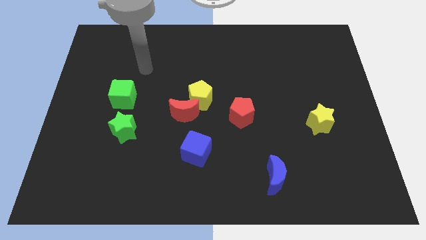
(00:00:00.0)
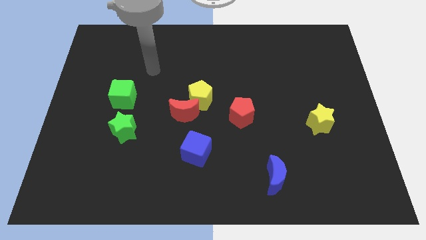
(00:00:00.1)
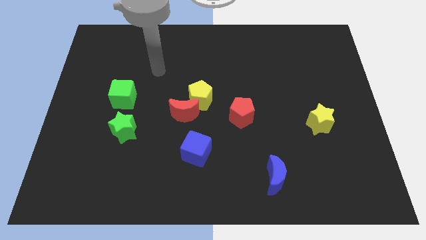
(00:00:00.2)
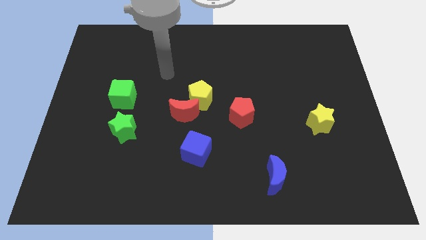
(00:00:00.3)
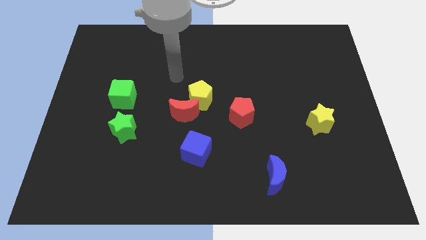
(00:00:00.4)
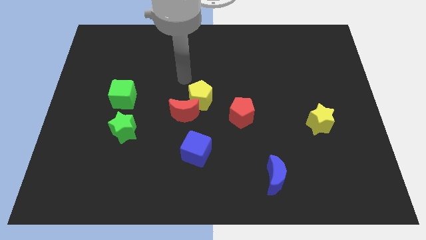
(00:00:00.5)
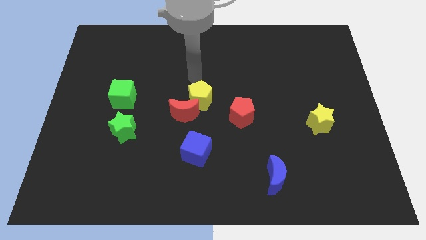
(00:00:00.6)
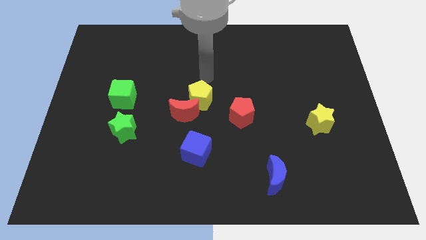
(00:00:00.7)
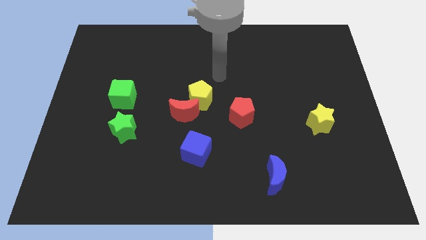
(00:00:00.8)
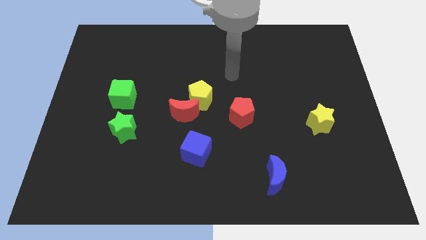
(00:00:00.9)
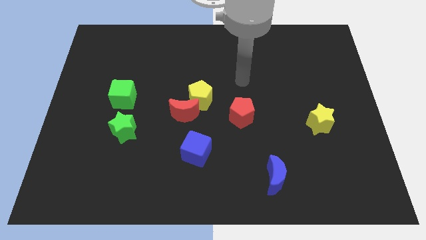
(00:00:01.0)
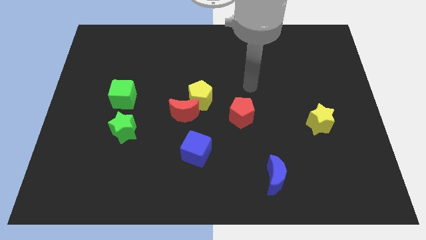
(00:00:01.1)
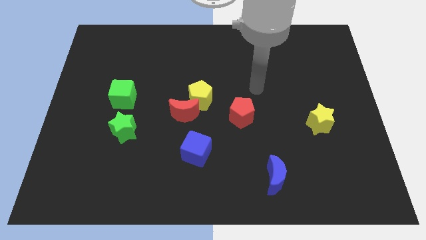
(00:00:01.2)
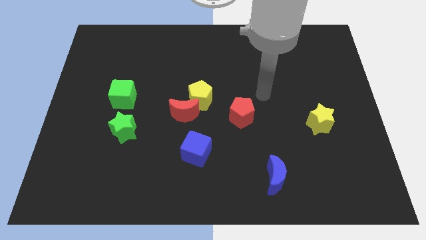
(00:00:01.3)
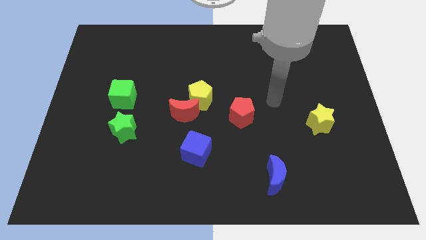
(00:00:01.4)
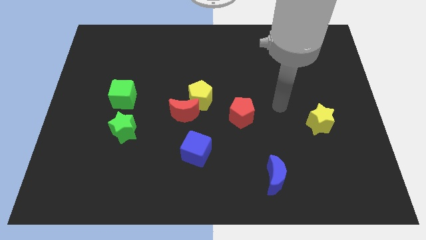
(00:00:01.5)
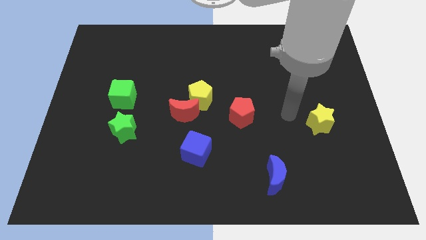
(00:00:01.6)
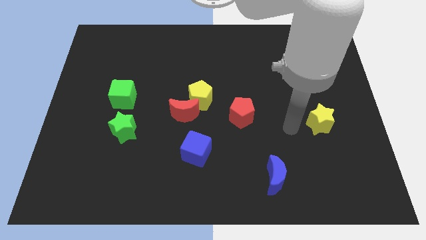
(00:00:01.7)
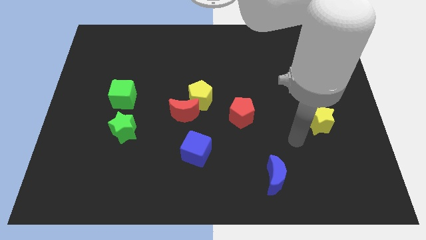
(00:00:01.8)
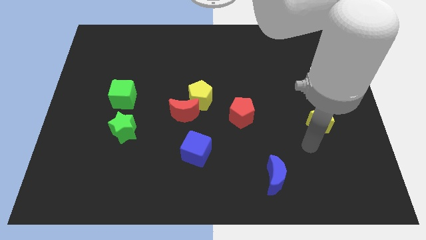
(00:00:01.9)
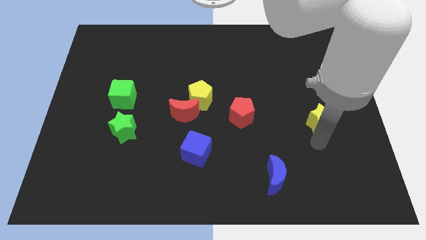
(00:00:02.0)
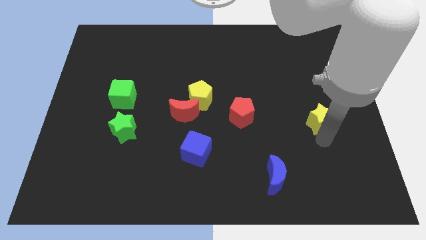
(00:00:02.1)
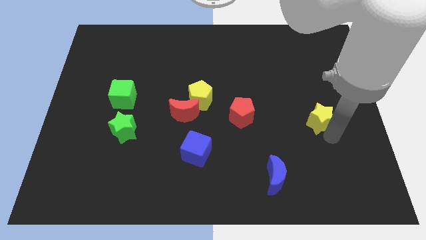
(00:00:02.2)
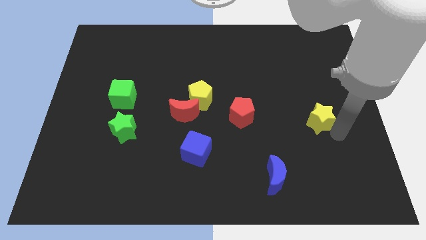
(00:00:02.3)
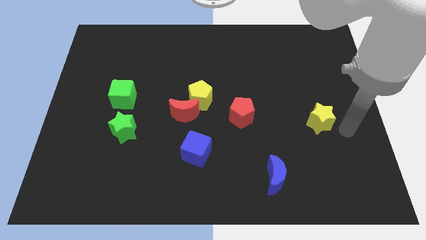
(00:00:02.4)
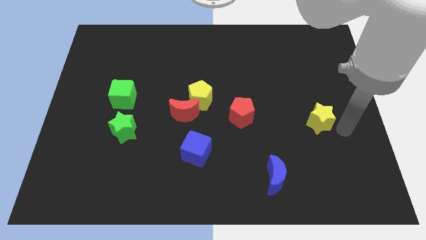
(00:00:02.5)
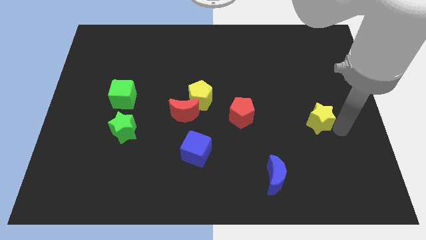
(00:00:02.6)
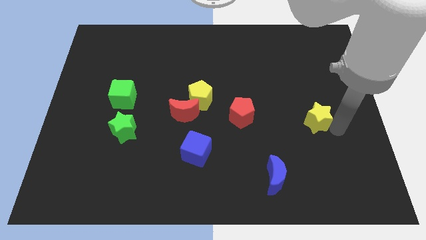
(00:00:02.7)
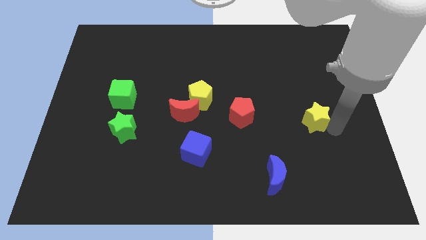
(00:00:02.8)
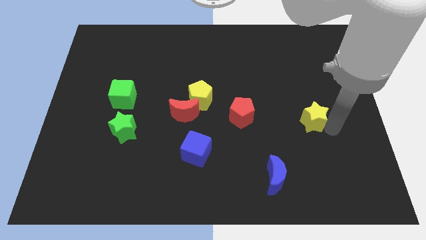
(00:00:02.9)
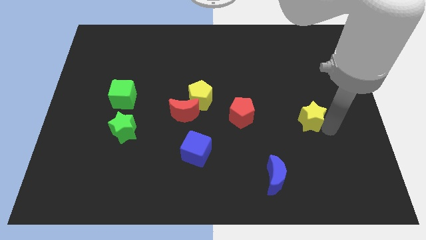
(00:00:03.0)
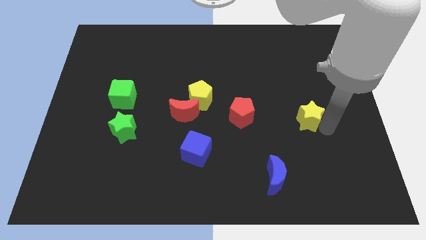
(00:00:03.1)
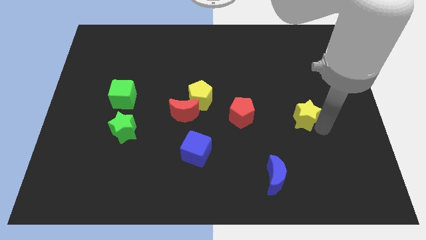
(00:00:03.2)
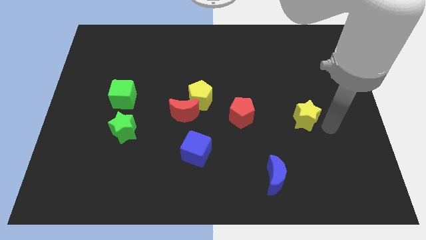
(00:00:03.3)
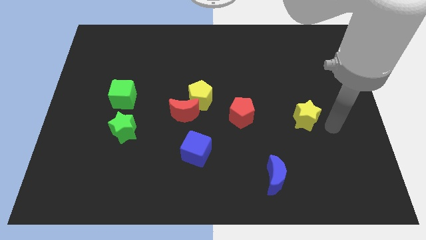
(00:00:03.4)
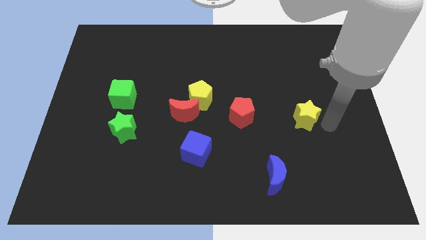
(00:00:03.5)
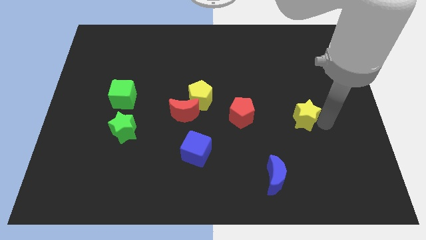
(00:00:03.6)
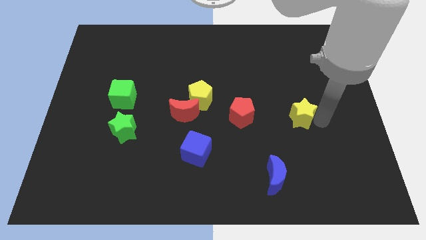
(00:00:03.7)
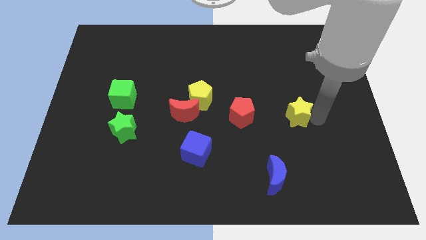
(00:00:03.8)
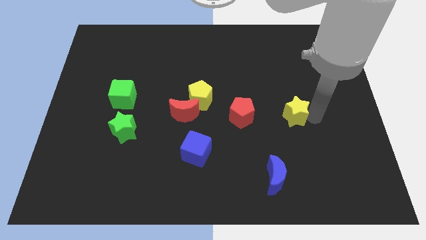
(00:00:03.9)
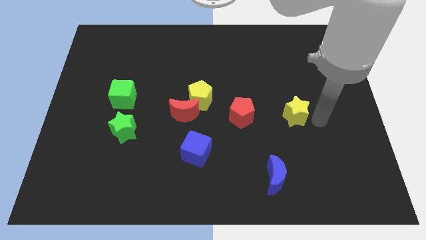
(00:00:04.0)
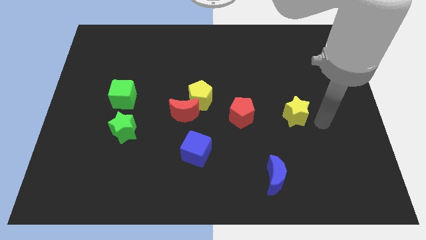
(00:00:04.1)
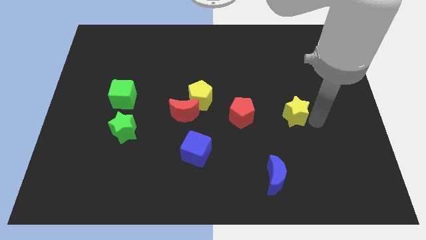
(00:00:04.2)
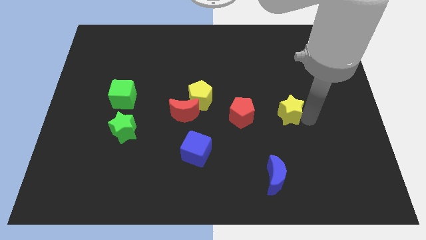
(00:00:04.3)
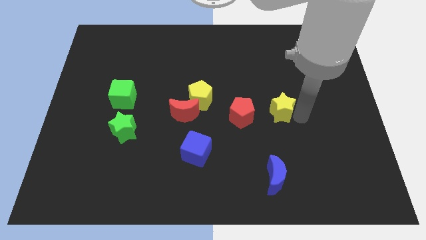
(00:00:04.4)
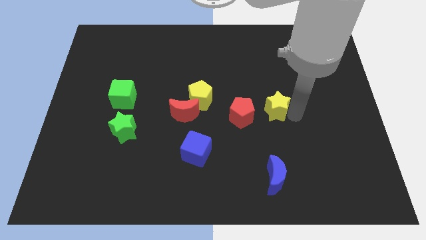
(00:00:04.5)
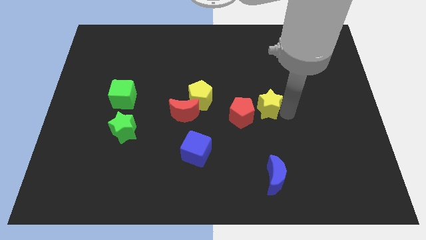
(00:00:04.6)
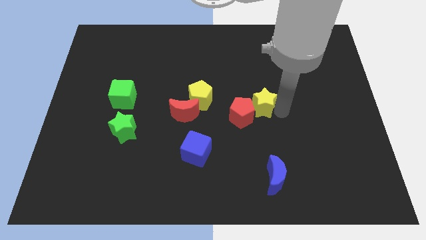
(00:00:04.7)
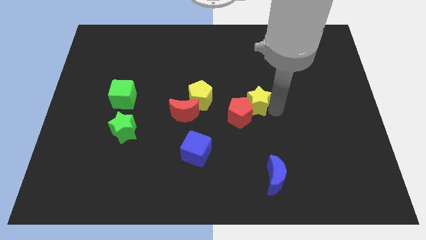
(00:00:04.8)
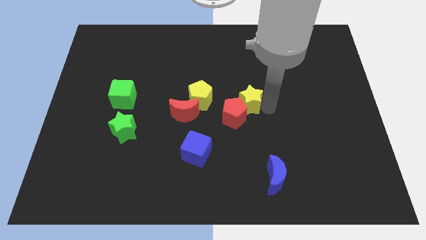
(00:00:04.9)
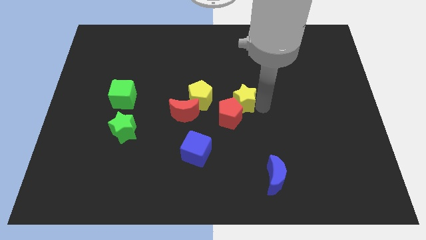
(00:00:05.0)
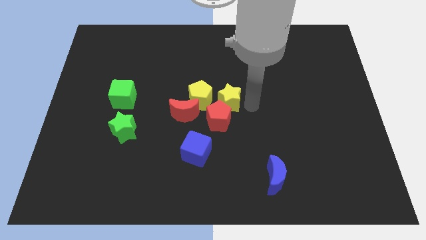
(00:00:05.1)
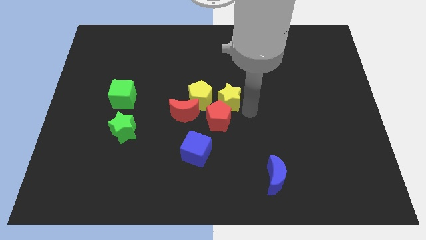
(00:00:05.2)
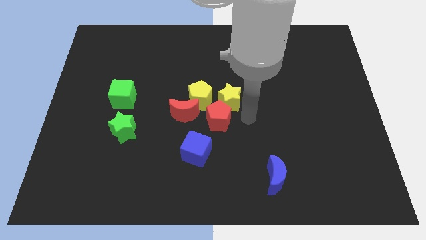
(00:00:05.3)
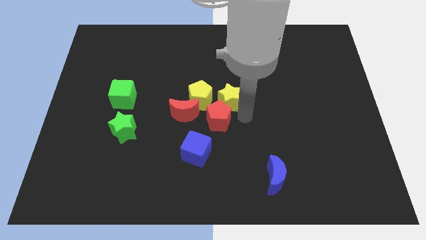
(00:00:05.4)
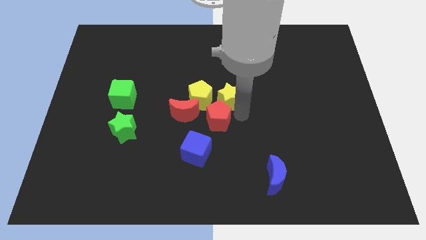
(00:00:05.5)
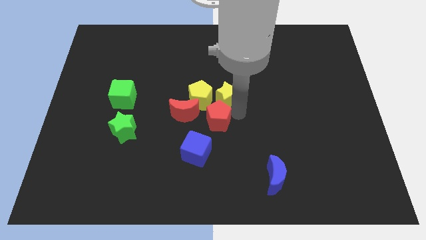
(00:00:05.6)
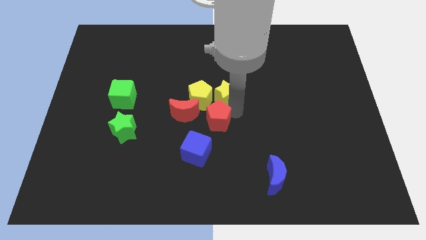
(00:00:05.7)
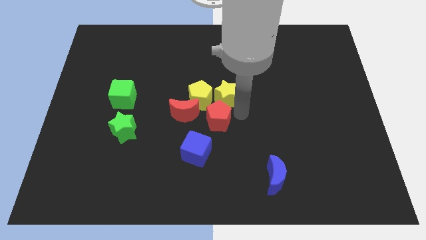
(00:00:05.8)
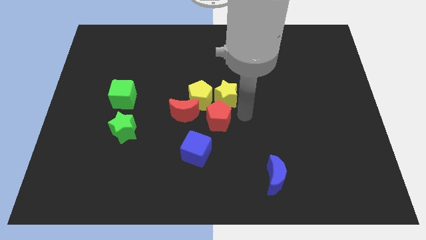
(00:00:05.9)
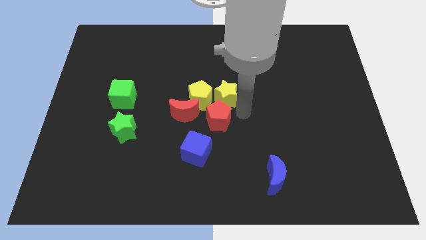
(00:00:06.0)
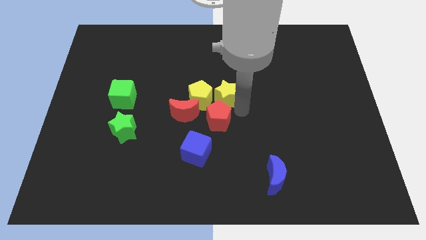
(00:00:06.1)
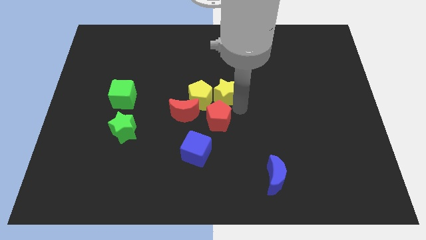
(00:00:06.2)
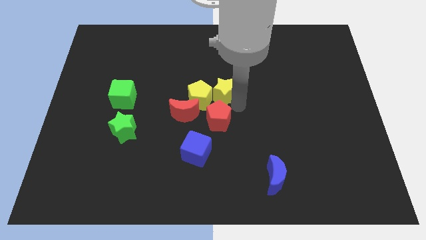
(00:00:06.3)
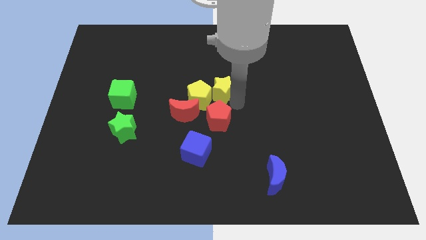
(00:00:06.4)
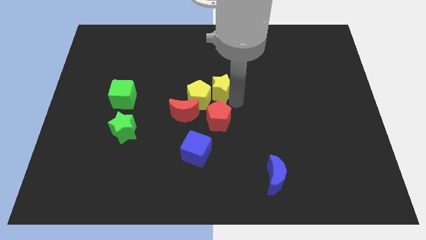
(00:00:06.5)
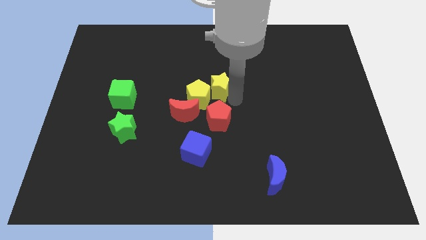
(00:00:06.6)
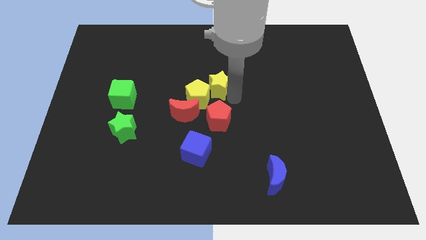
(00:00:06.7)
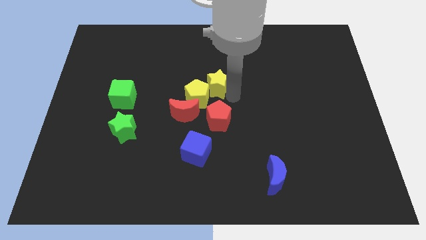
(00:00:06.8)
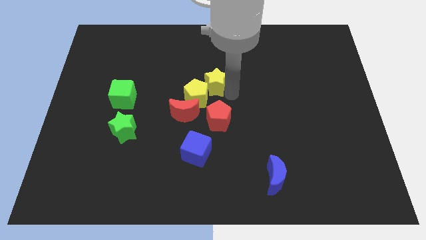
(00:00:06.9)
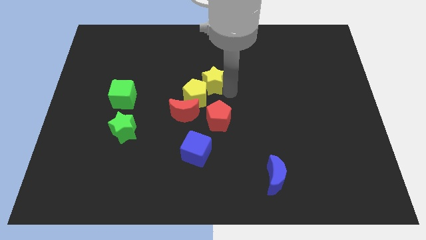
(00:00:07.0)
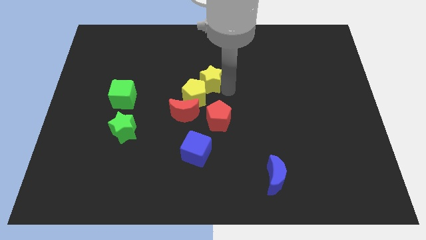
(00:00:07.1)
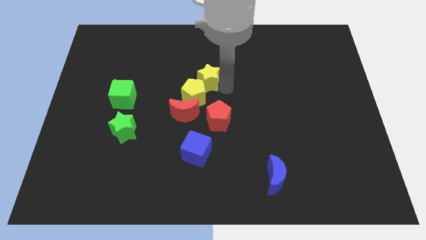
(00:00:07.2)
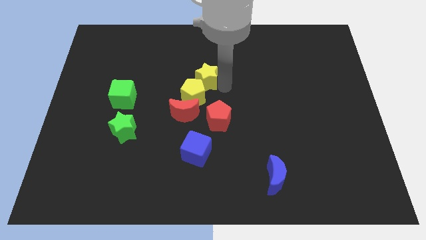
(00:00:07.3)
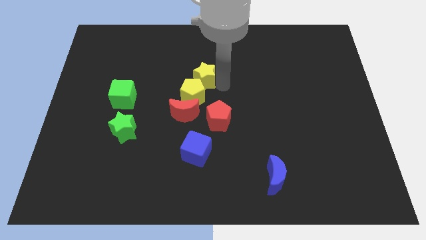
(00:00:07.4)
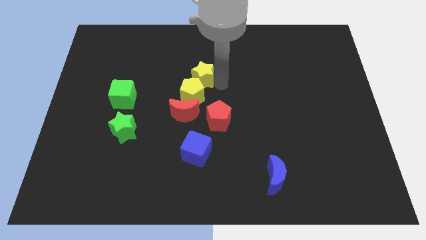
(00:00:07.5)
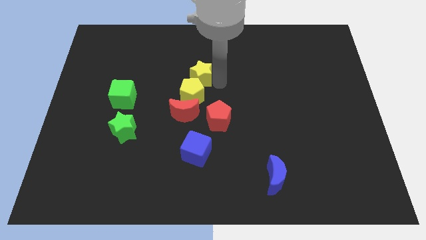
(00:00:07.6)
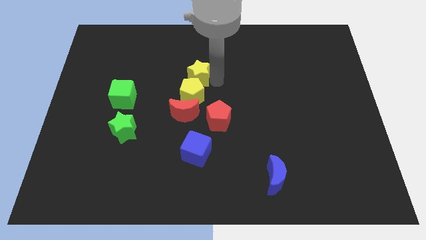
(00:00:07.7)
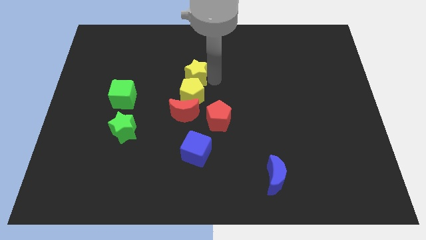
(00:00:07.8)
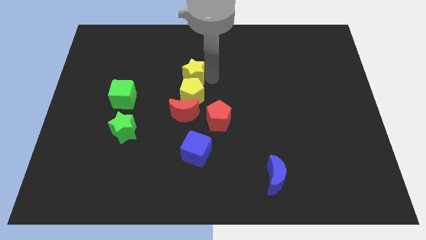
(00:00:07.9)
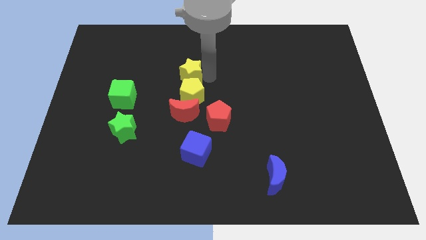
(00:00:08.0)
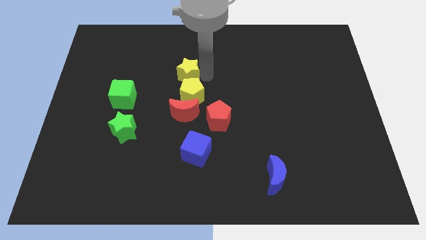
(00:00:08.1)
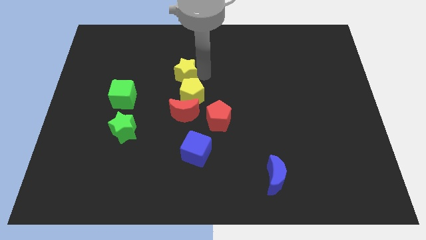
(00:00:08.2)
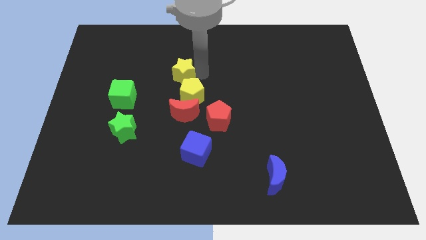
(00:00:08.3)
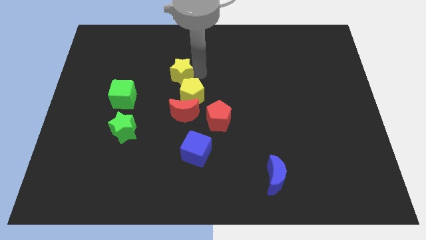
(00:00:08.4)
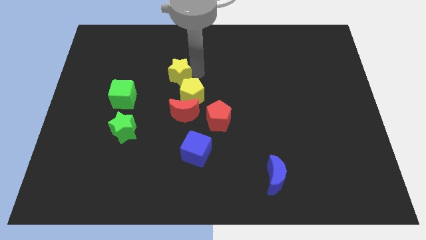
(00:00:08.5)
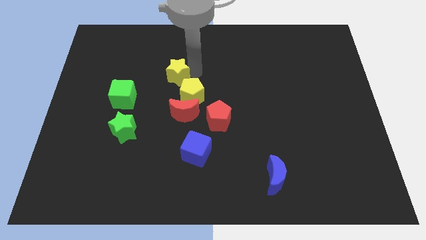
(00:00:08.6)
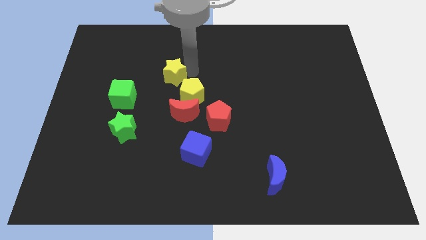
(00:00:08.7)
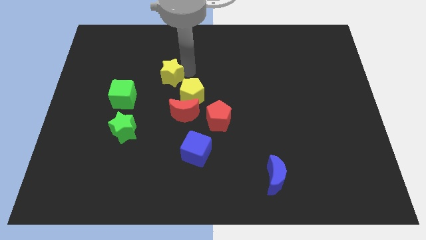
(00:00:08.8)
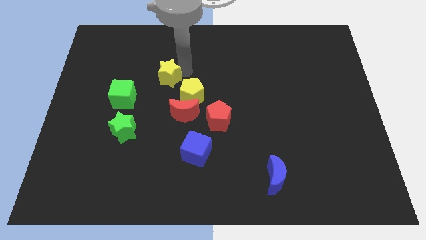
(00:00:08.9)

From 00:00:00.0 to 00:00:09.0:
put the yellow star diagonally up and to the right of the green cube
